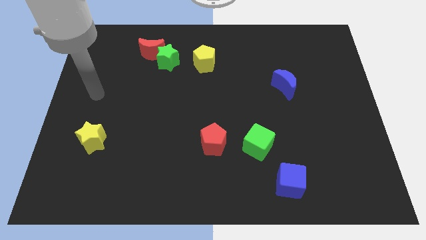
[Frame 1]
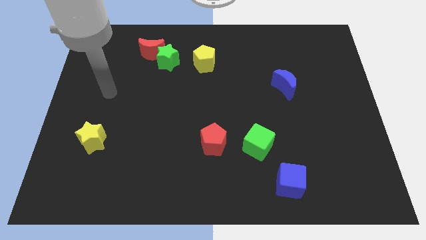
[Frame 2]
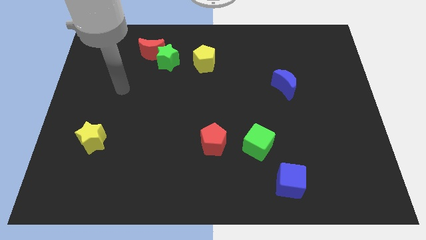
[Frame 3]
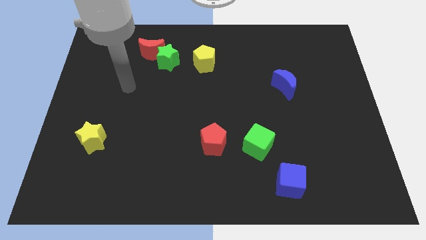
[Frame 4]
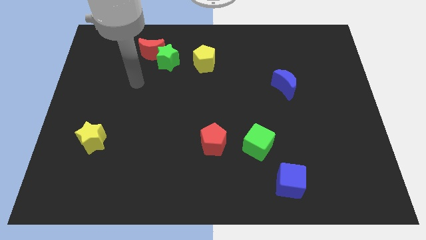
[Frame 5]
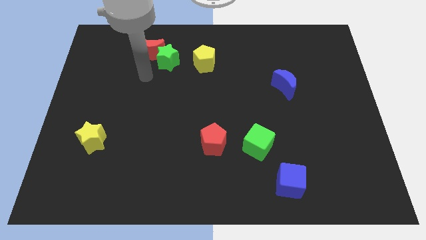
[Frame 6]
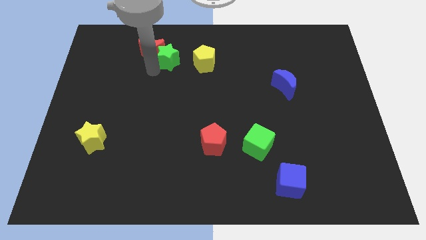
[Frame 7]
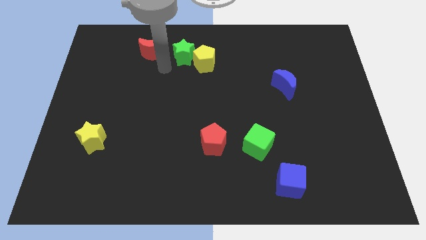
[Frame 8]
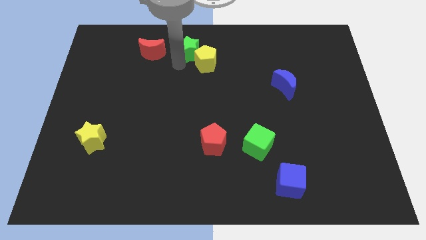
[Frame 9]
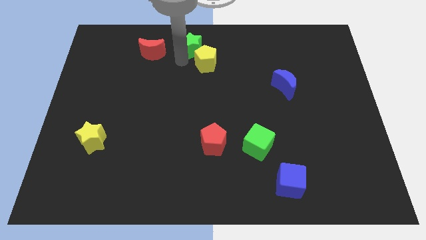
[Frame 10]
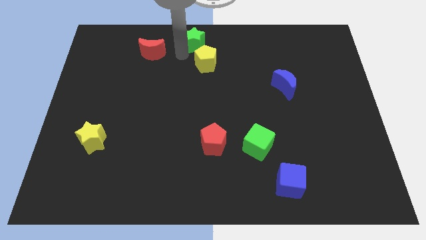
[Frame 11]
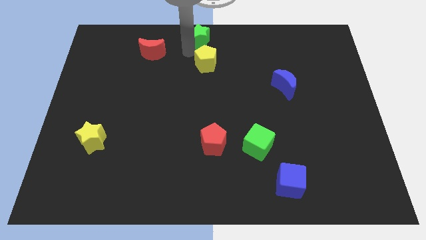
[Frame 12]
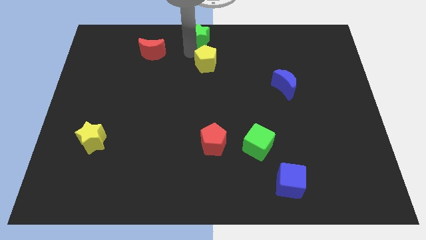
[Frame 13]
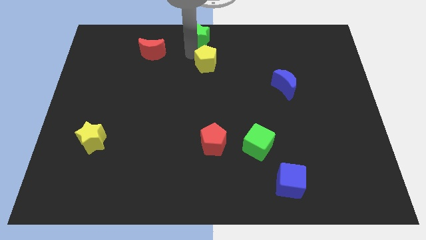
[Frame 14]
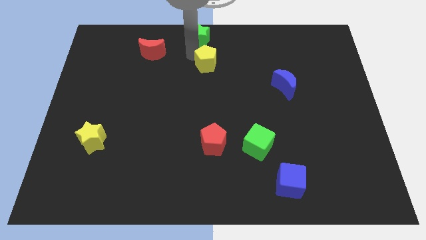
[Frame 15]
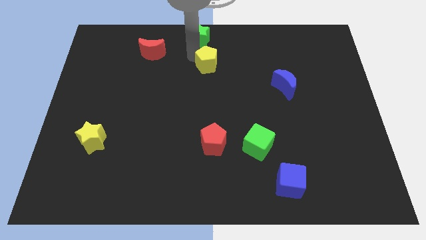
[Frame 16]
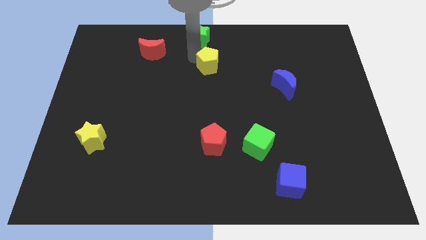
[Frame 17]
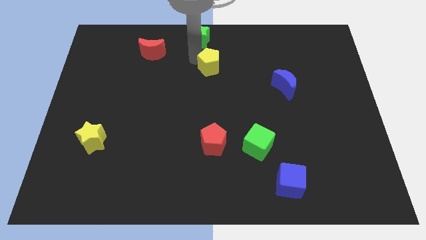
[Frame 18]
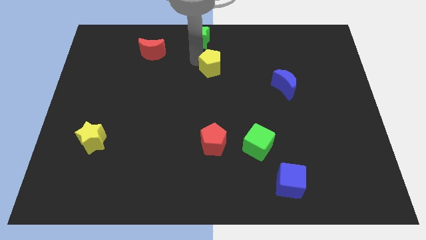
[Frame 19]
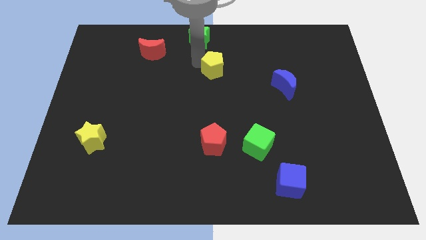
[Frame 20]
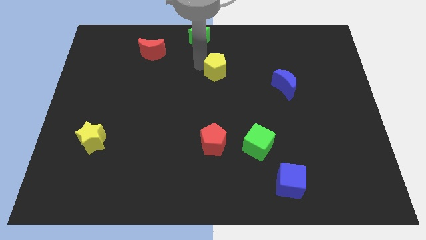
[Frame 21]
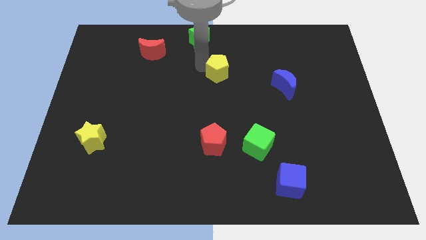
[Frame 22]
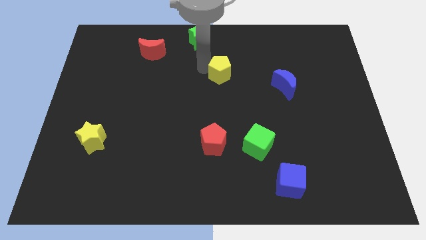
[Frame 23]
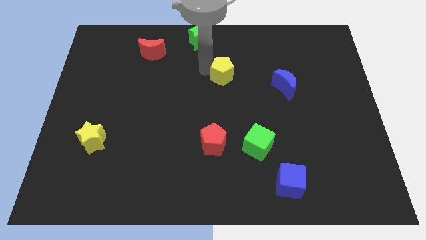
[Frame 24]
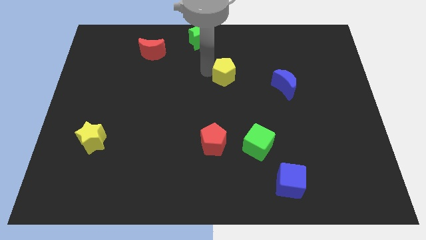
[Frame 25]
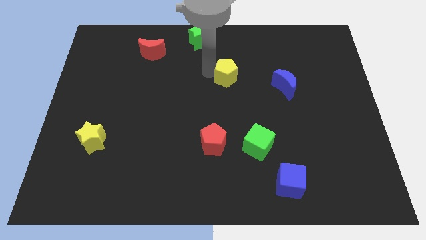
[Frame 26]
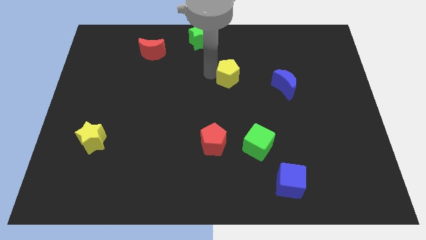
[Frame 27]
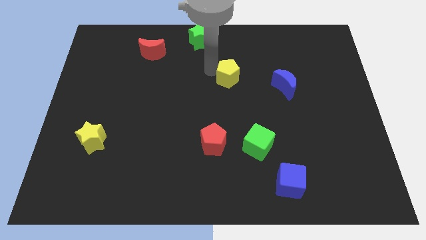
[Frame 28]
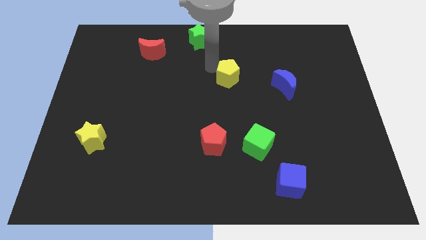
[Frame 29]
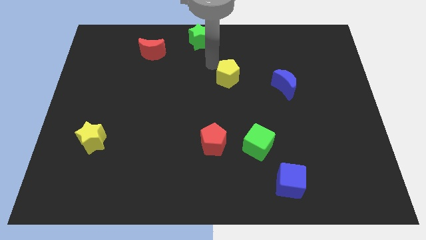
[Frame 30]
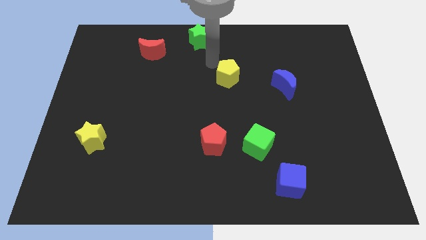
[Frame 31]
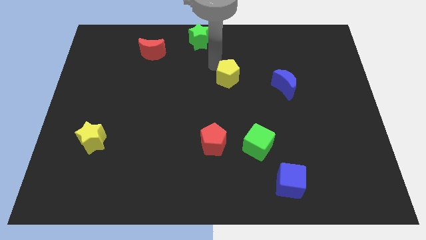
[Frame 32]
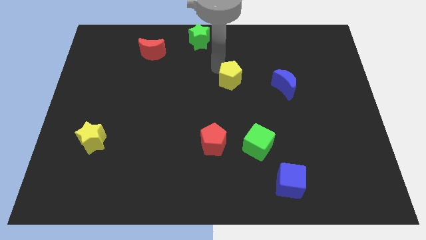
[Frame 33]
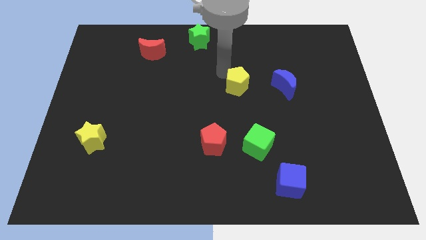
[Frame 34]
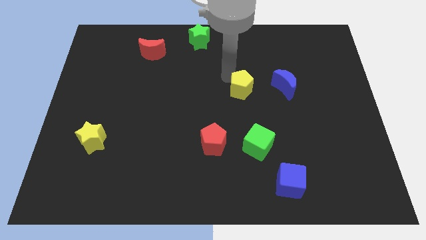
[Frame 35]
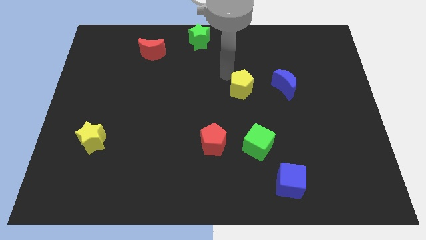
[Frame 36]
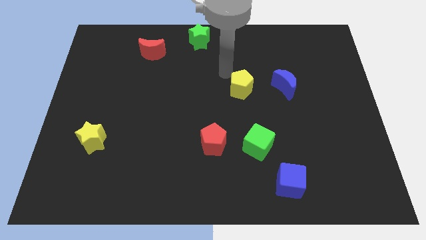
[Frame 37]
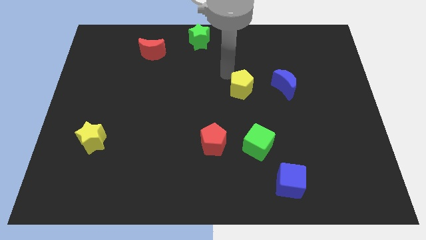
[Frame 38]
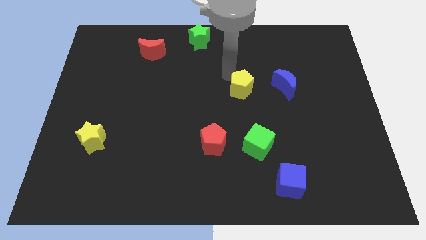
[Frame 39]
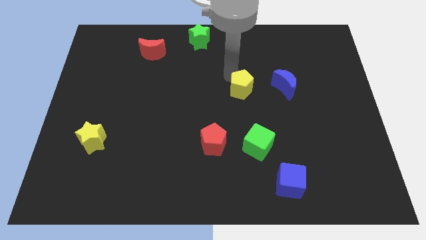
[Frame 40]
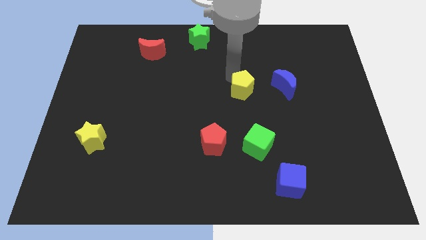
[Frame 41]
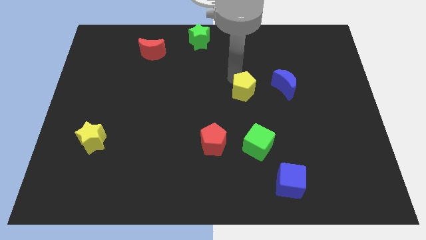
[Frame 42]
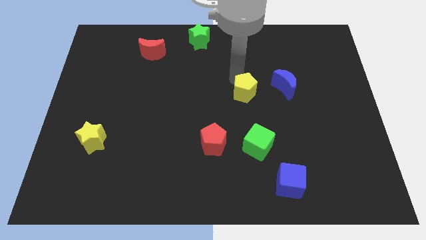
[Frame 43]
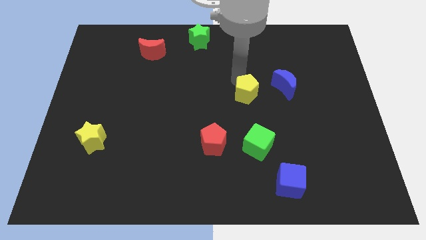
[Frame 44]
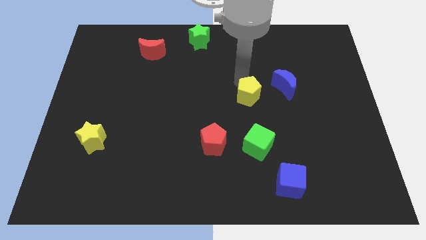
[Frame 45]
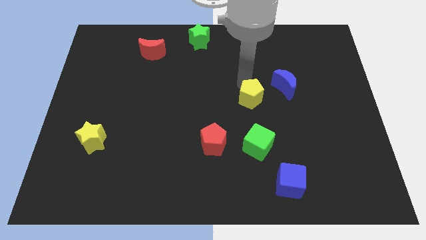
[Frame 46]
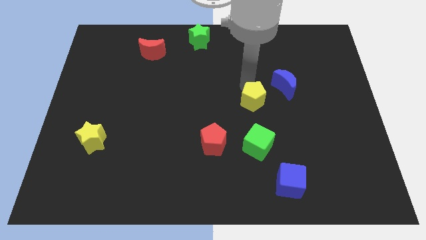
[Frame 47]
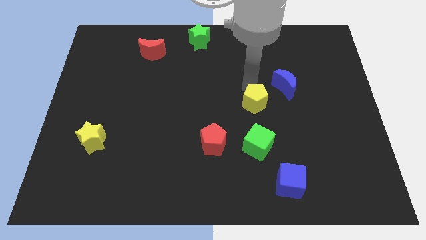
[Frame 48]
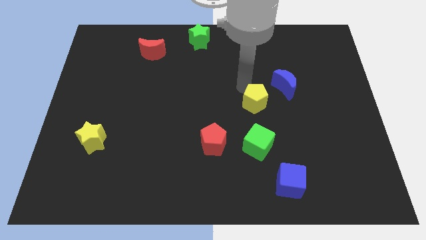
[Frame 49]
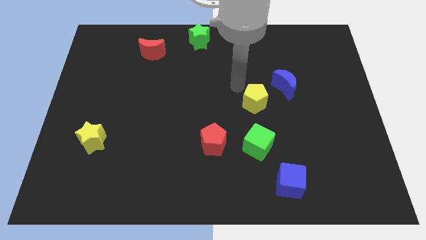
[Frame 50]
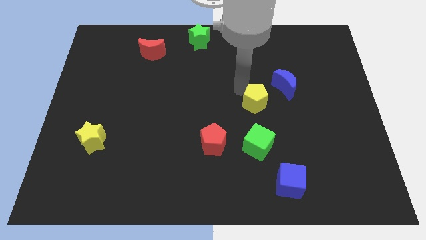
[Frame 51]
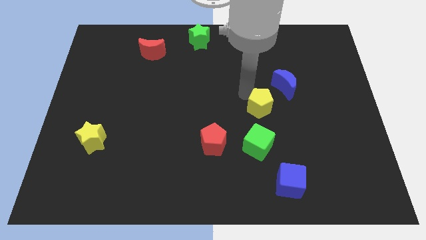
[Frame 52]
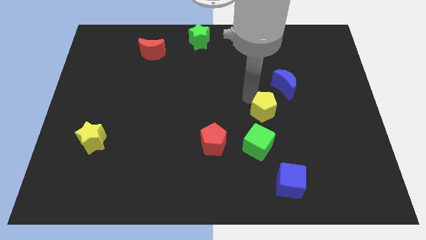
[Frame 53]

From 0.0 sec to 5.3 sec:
slide the yellow pentagon downwards and then to the right

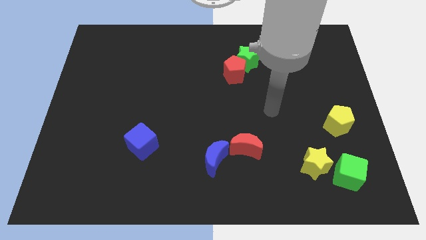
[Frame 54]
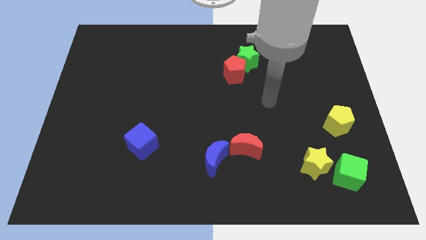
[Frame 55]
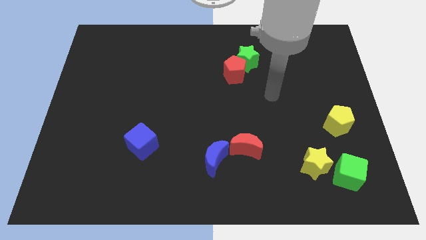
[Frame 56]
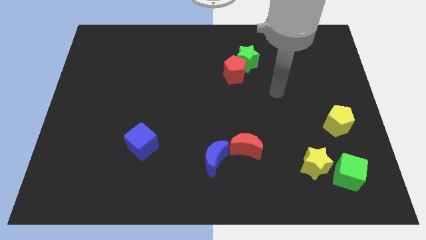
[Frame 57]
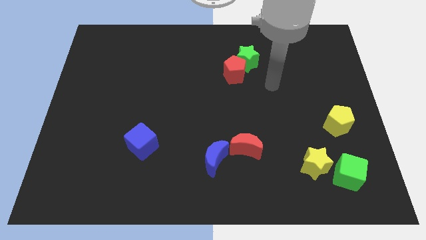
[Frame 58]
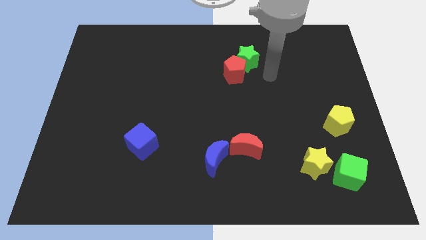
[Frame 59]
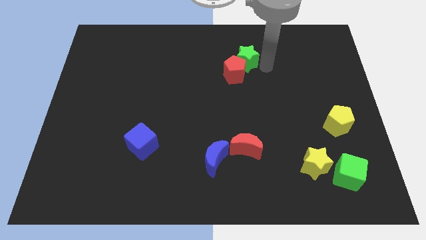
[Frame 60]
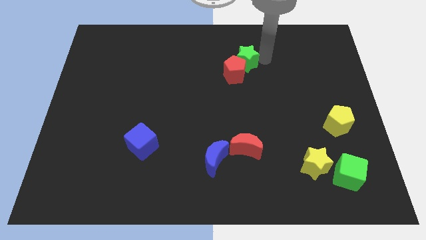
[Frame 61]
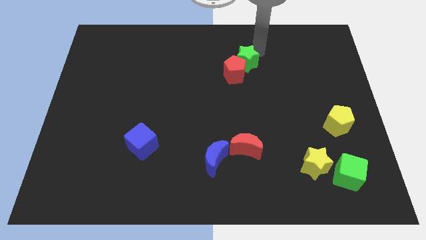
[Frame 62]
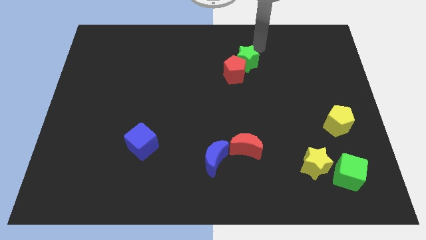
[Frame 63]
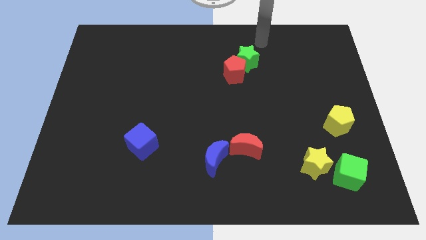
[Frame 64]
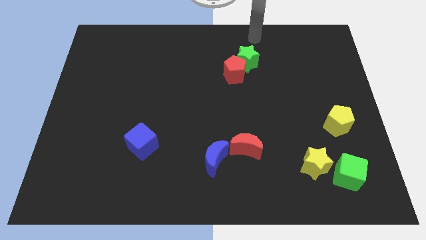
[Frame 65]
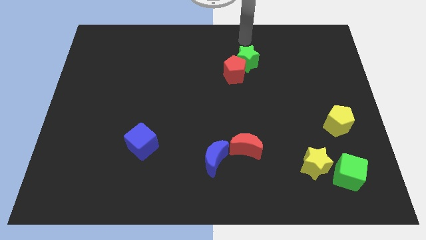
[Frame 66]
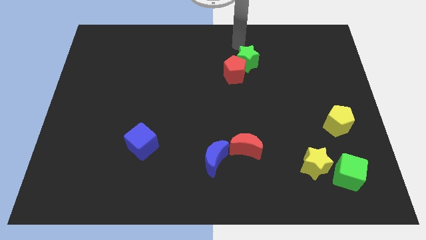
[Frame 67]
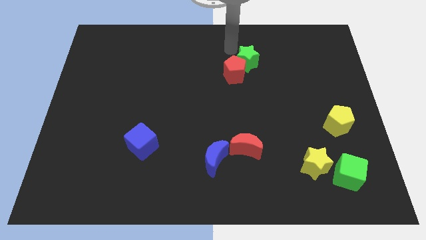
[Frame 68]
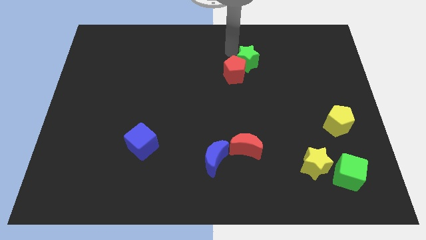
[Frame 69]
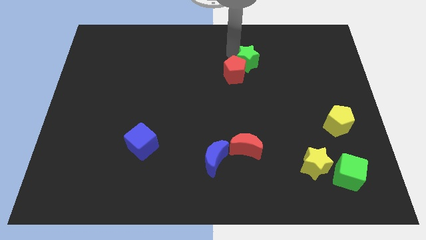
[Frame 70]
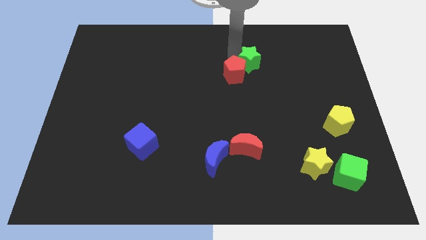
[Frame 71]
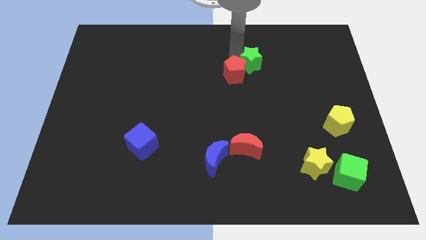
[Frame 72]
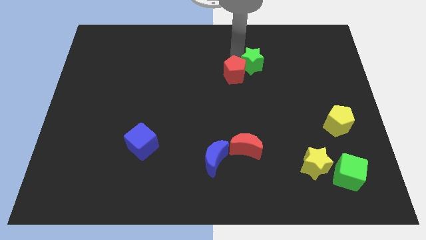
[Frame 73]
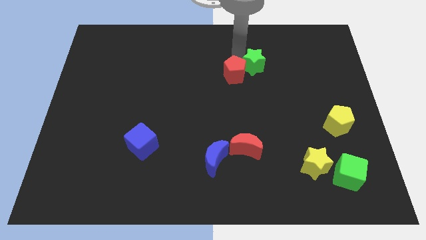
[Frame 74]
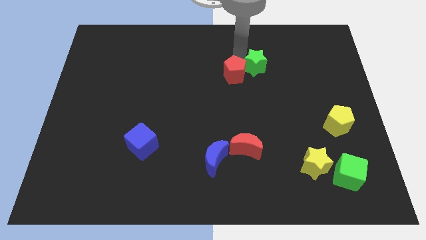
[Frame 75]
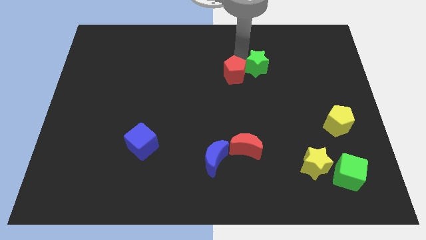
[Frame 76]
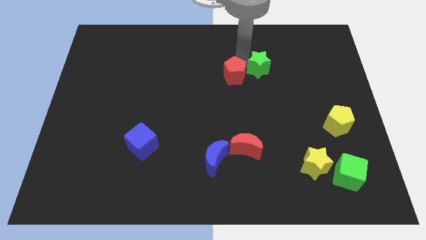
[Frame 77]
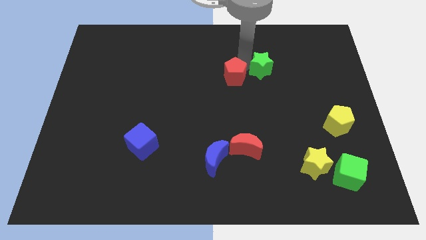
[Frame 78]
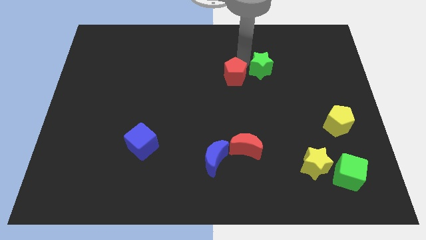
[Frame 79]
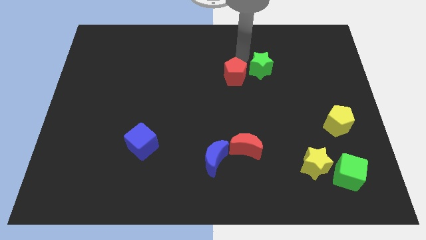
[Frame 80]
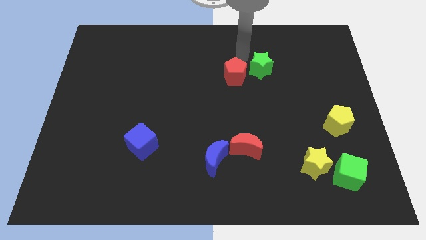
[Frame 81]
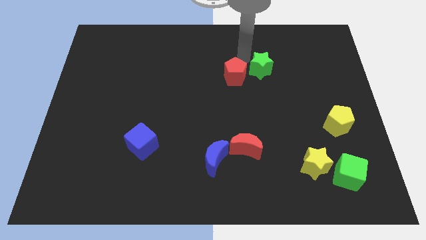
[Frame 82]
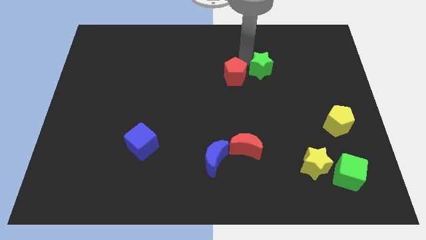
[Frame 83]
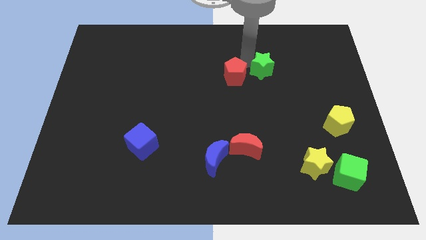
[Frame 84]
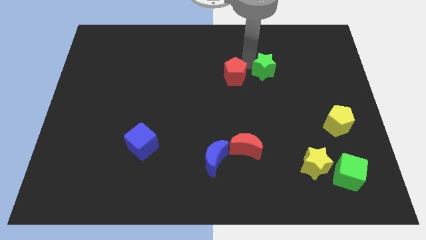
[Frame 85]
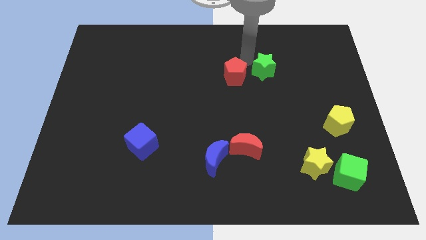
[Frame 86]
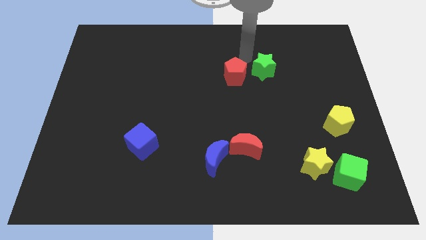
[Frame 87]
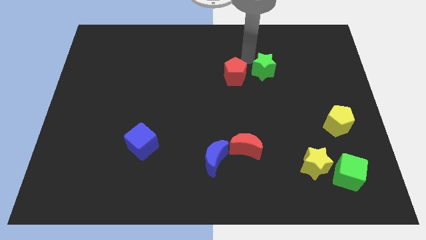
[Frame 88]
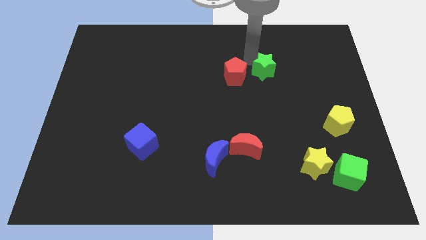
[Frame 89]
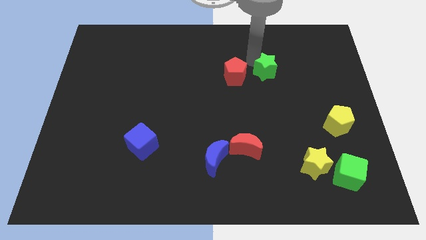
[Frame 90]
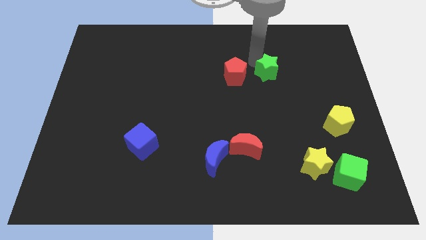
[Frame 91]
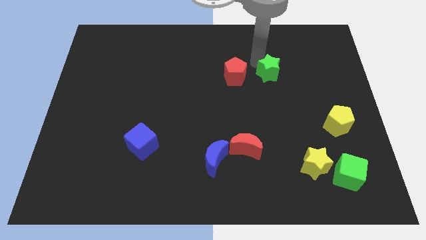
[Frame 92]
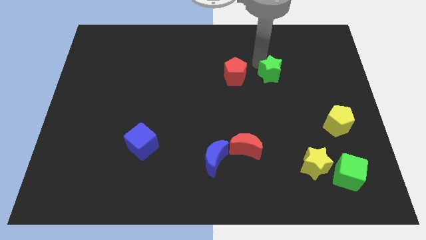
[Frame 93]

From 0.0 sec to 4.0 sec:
slightly move the green star downwards and to the right
